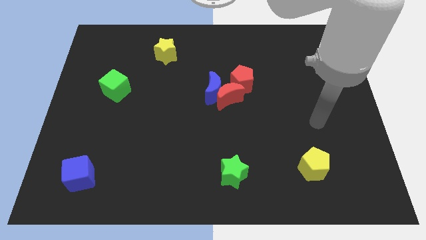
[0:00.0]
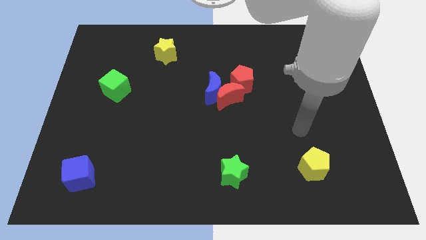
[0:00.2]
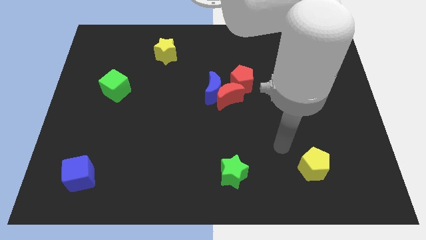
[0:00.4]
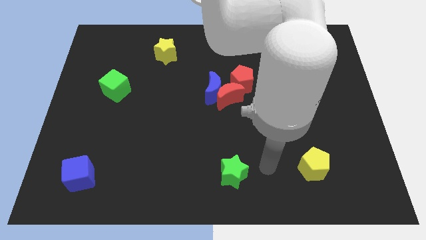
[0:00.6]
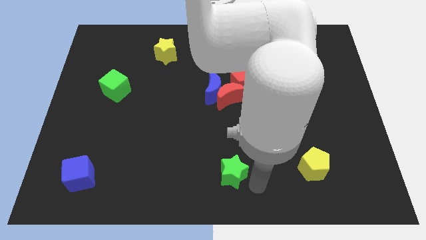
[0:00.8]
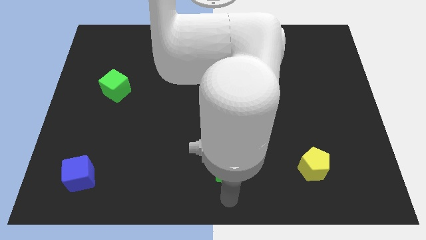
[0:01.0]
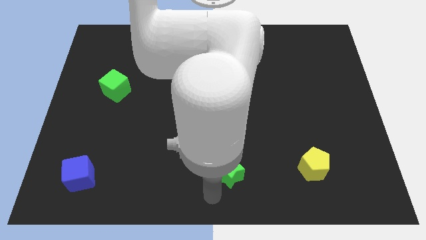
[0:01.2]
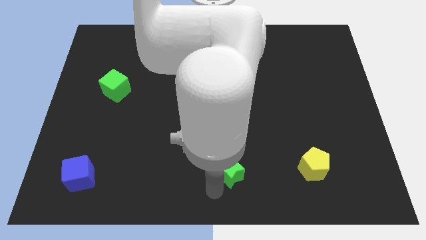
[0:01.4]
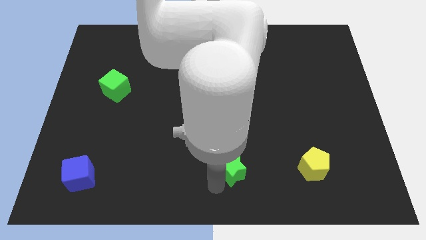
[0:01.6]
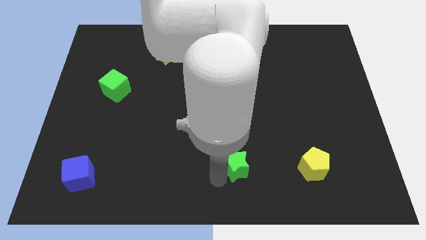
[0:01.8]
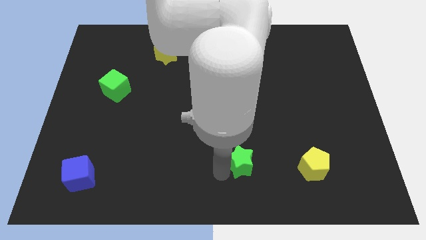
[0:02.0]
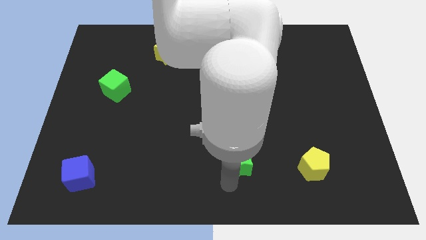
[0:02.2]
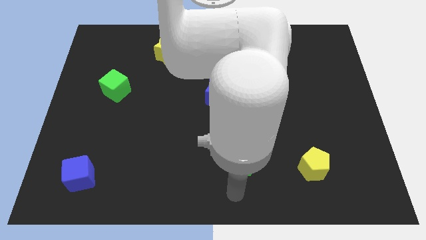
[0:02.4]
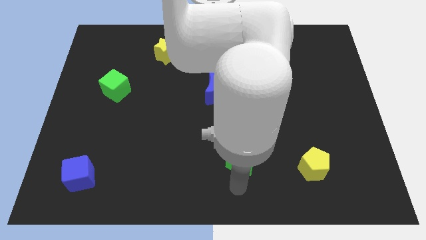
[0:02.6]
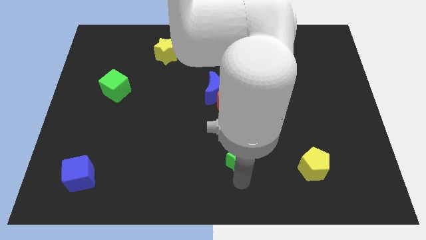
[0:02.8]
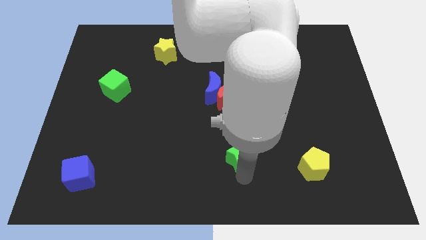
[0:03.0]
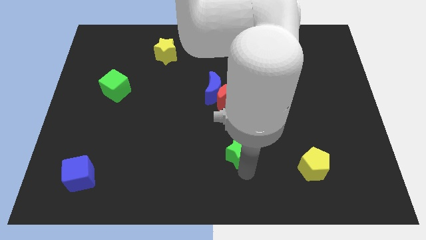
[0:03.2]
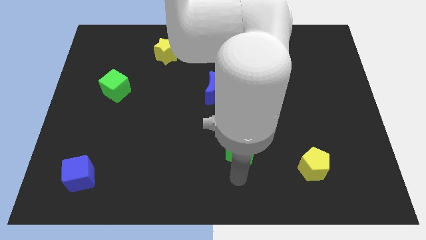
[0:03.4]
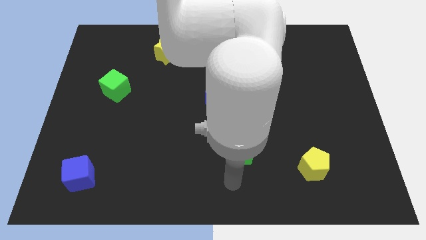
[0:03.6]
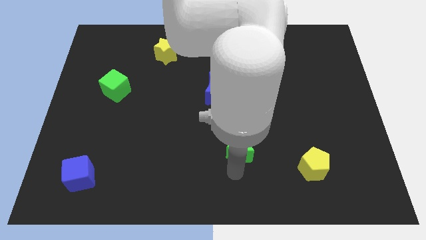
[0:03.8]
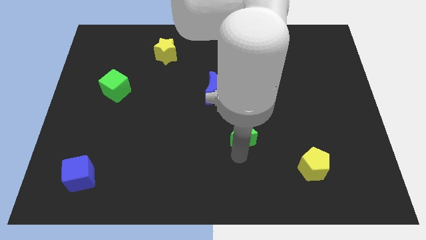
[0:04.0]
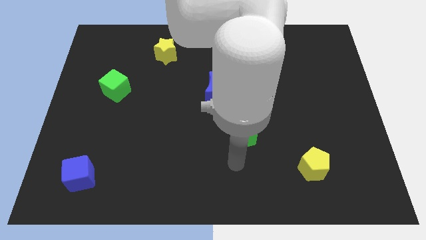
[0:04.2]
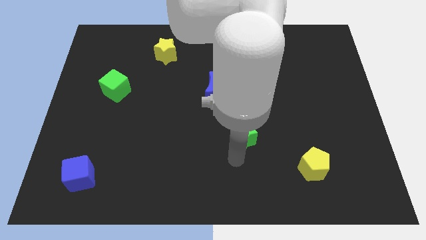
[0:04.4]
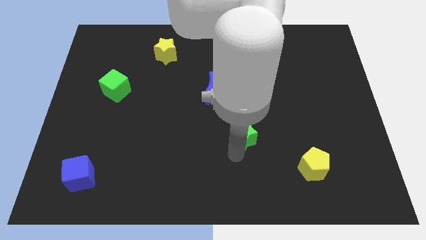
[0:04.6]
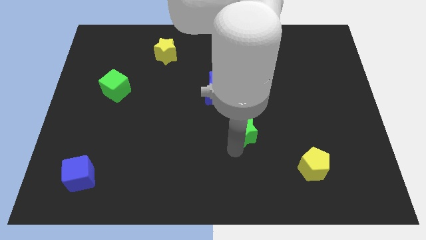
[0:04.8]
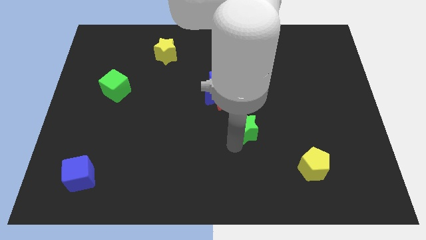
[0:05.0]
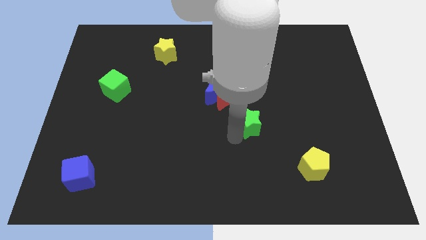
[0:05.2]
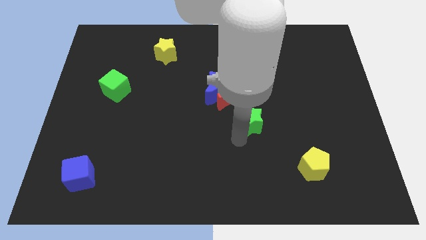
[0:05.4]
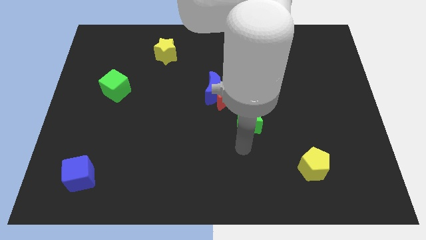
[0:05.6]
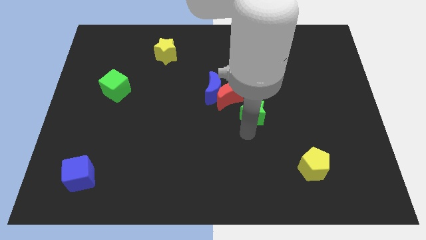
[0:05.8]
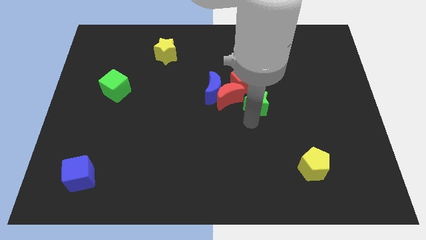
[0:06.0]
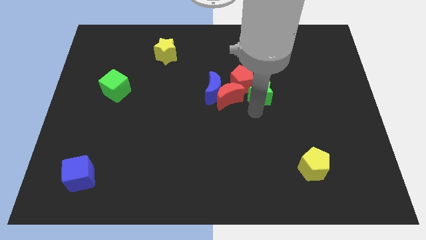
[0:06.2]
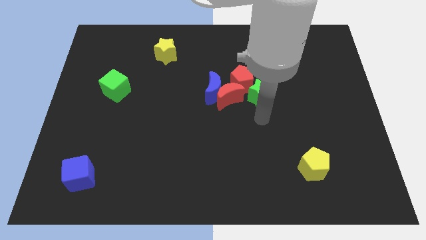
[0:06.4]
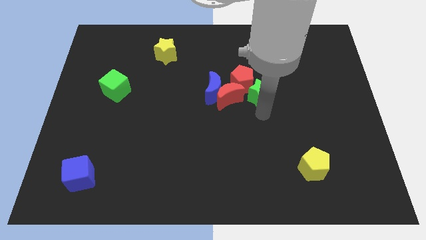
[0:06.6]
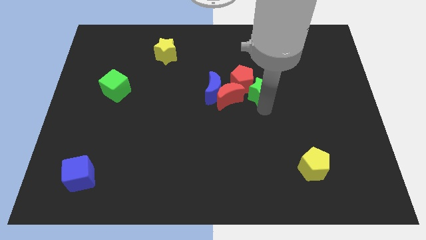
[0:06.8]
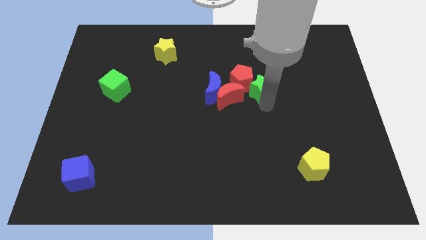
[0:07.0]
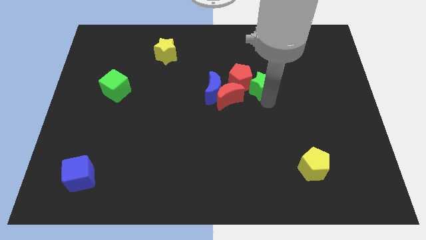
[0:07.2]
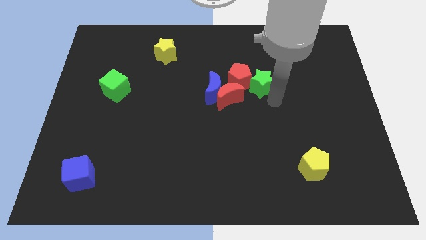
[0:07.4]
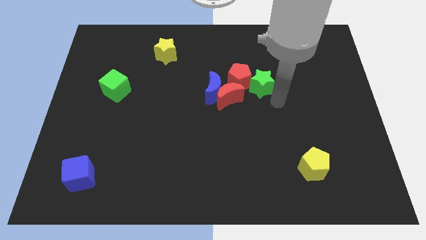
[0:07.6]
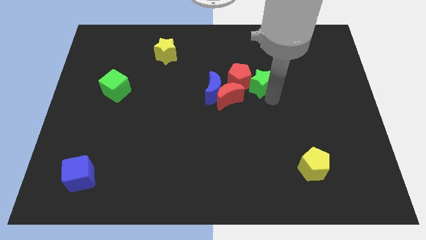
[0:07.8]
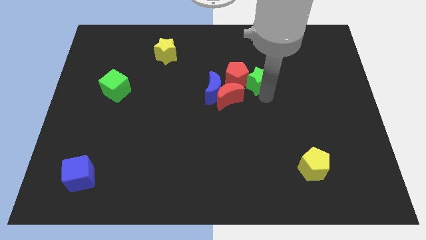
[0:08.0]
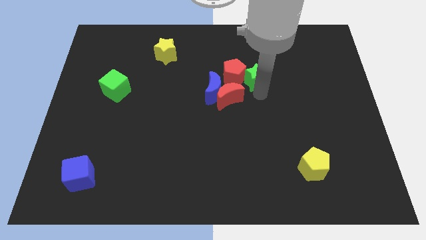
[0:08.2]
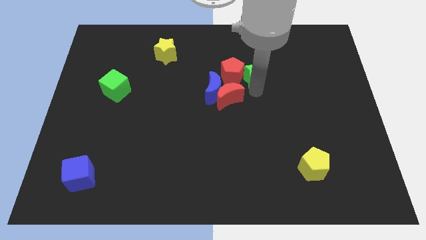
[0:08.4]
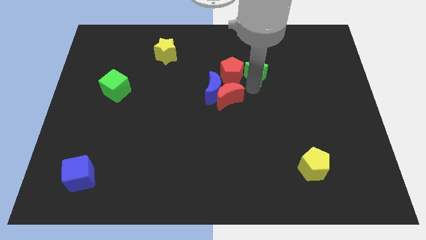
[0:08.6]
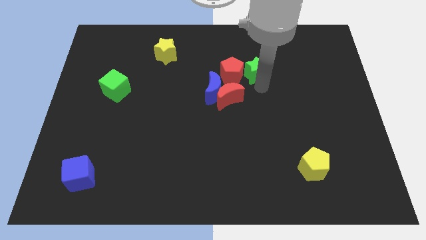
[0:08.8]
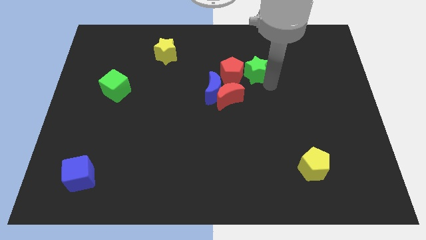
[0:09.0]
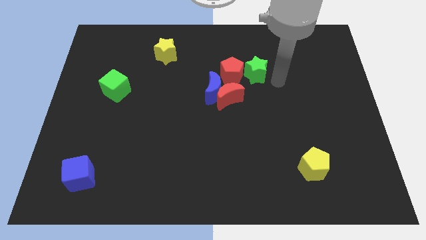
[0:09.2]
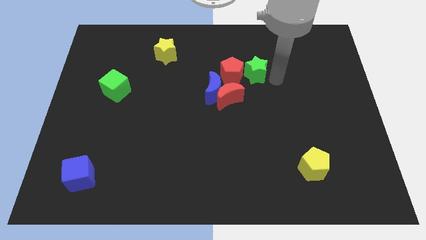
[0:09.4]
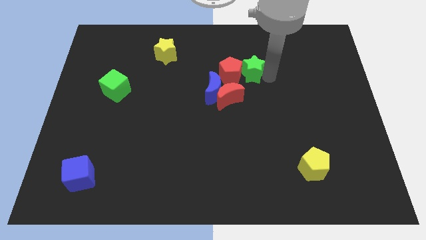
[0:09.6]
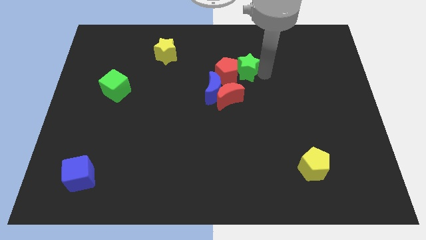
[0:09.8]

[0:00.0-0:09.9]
slide the green star to the top of the red moon

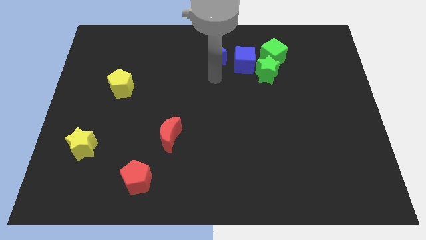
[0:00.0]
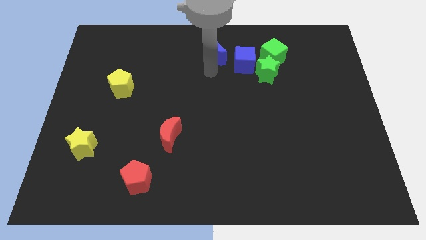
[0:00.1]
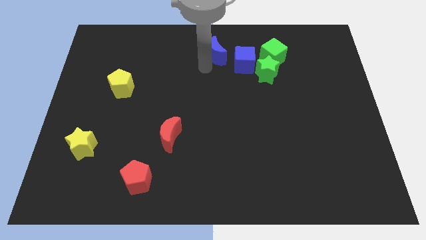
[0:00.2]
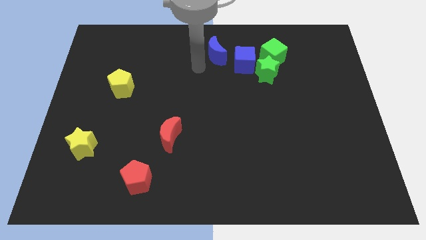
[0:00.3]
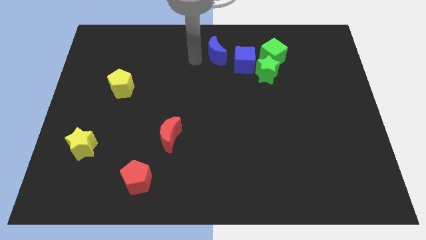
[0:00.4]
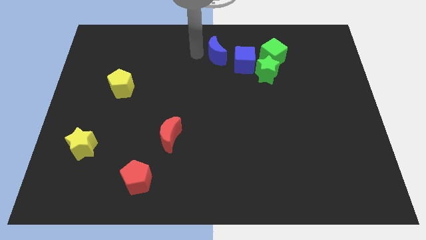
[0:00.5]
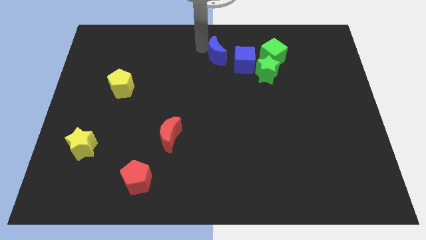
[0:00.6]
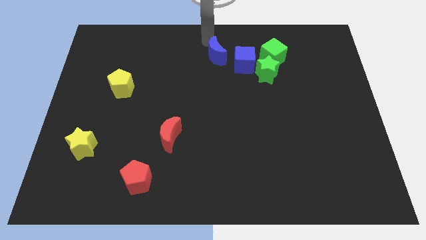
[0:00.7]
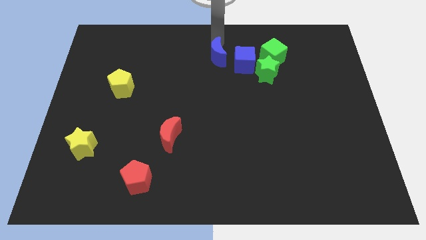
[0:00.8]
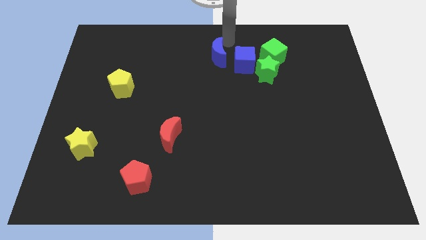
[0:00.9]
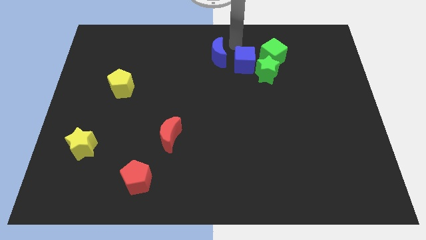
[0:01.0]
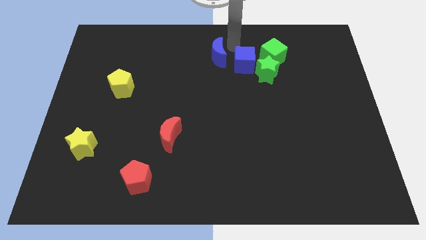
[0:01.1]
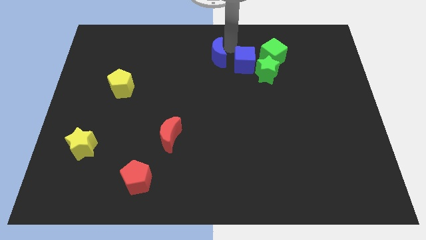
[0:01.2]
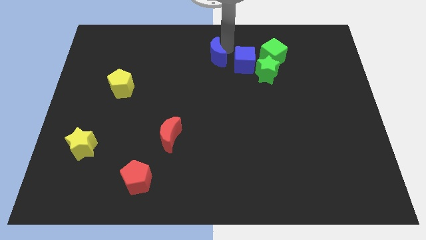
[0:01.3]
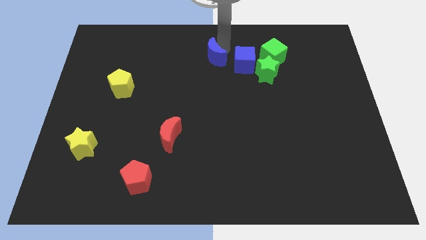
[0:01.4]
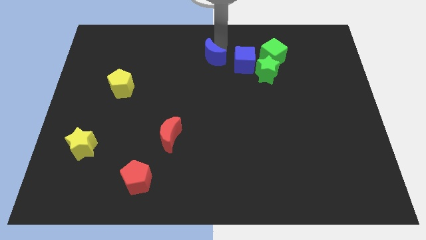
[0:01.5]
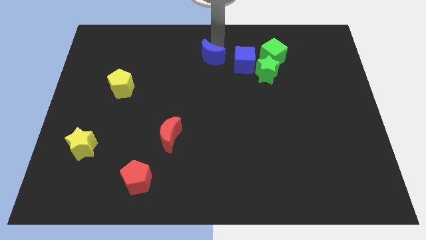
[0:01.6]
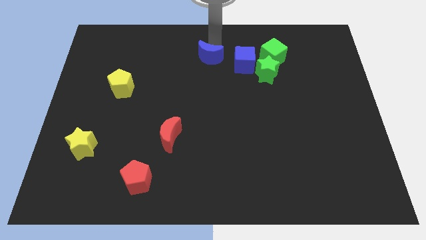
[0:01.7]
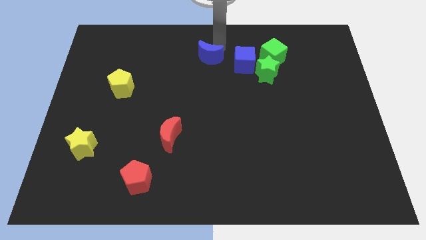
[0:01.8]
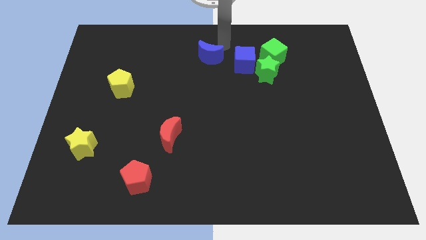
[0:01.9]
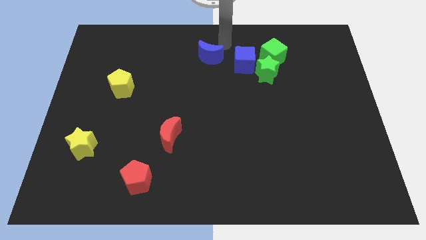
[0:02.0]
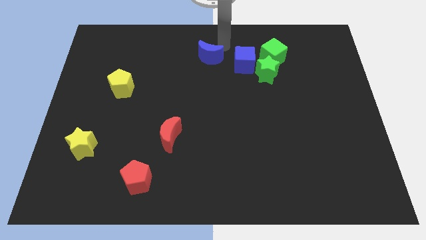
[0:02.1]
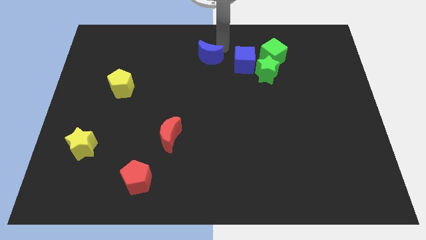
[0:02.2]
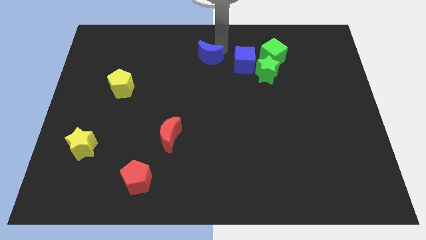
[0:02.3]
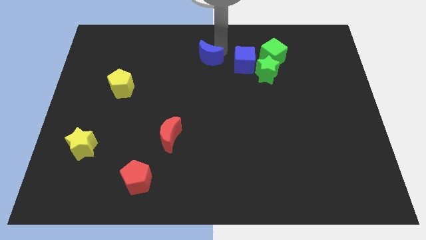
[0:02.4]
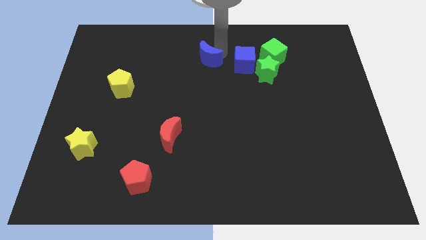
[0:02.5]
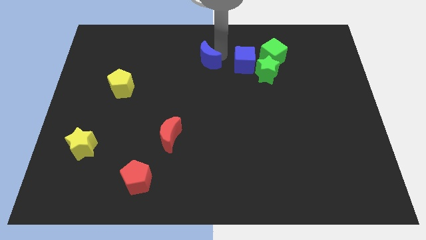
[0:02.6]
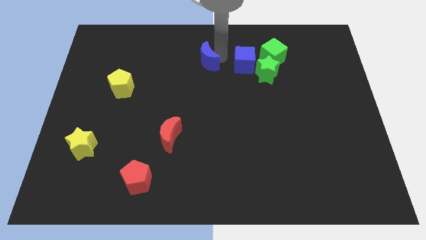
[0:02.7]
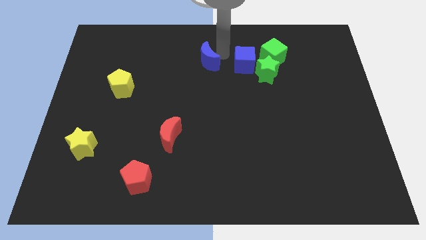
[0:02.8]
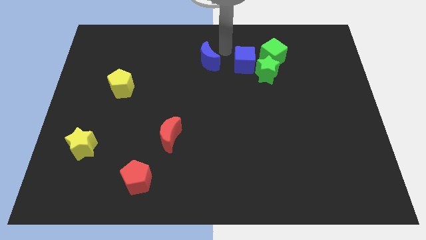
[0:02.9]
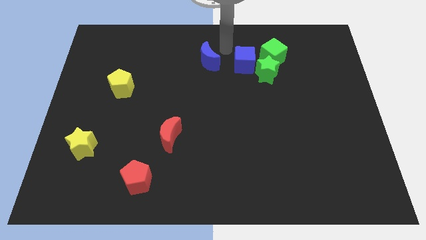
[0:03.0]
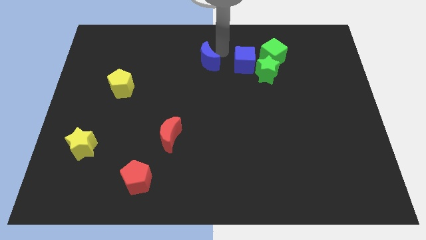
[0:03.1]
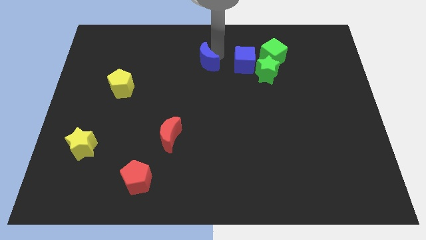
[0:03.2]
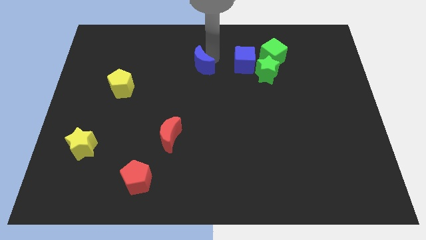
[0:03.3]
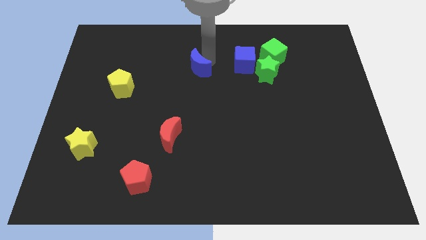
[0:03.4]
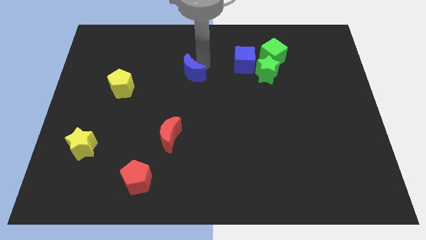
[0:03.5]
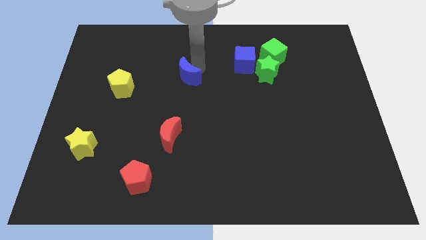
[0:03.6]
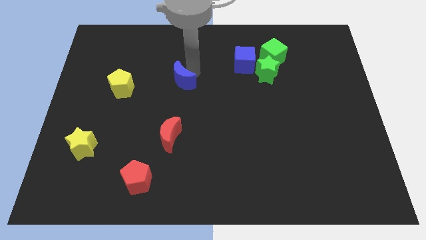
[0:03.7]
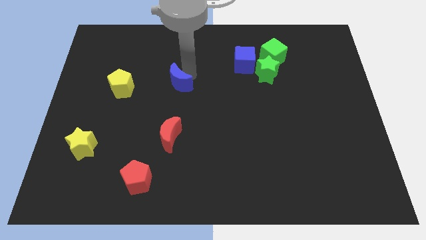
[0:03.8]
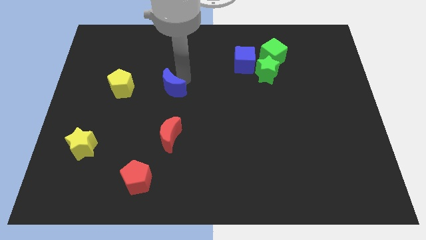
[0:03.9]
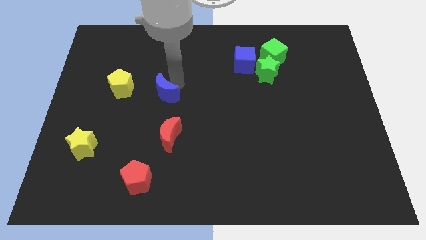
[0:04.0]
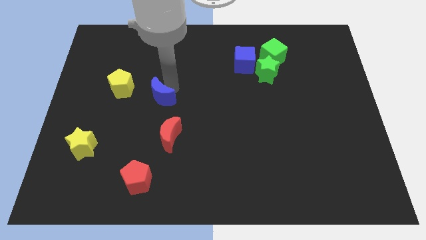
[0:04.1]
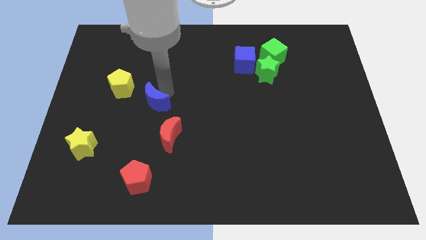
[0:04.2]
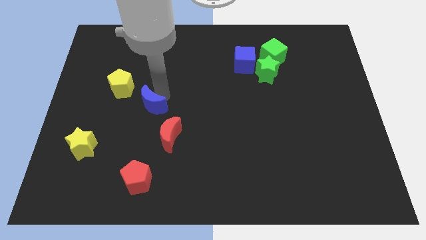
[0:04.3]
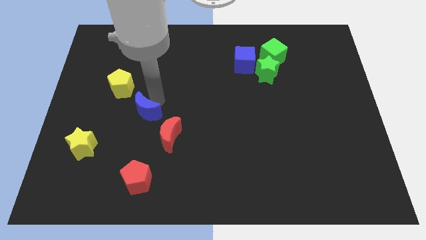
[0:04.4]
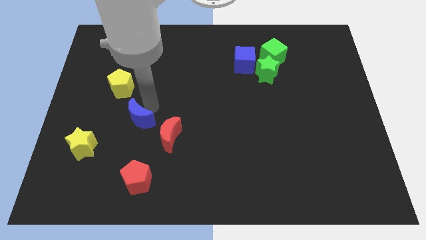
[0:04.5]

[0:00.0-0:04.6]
push the blue moon to the left of the red moon
